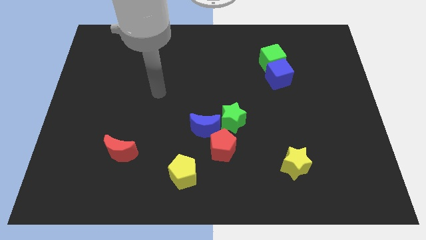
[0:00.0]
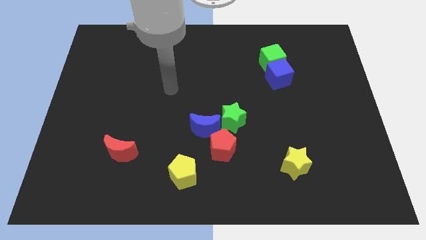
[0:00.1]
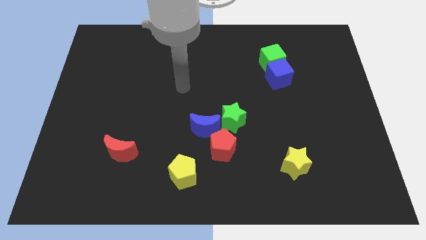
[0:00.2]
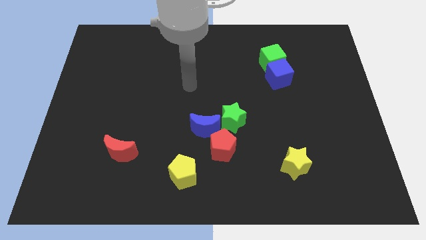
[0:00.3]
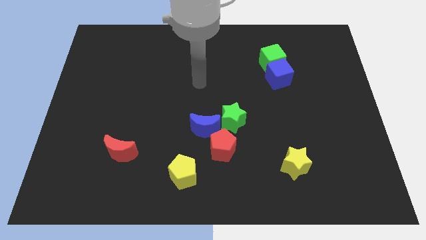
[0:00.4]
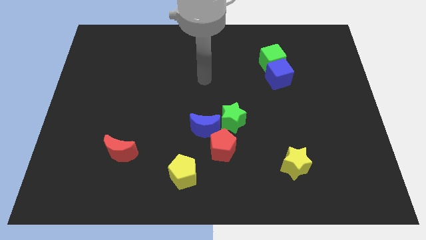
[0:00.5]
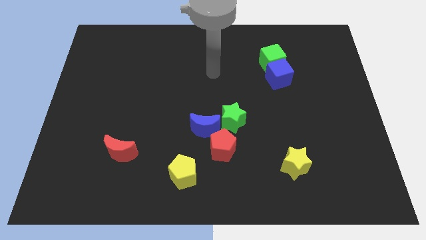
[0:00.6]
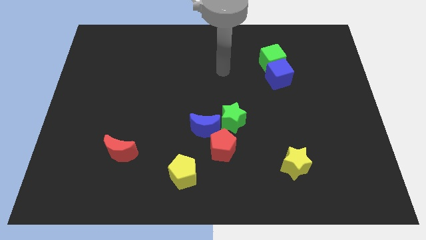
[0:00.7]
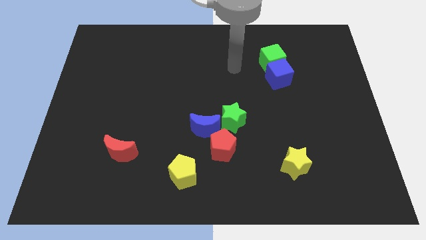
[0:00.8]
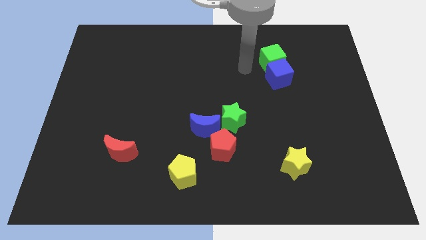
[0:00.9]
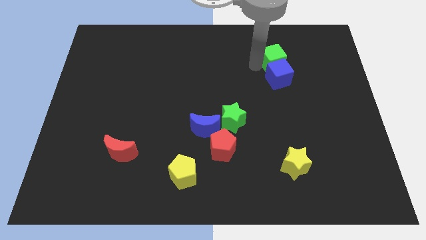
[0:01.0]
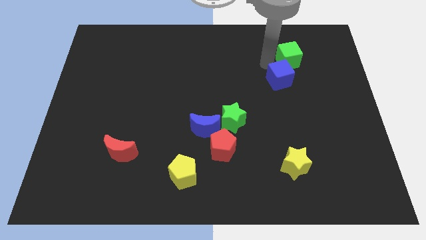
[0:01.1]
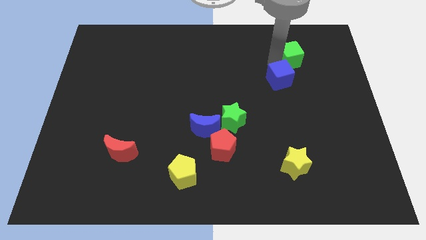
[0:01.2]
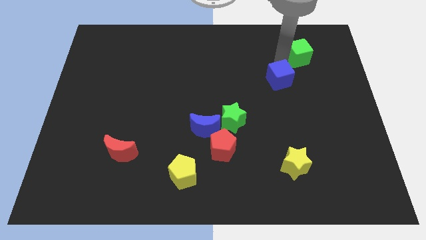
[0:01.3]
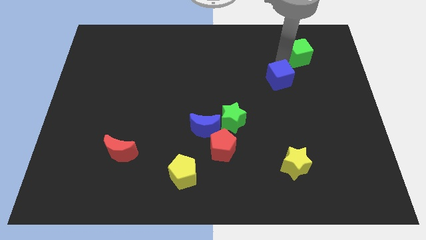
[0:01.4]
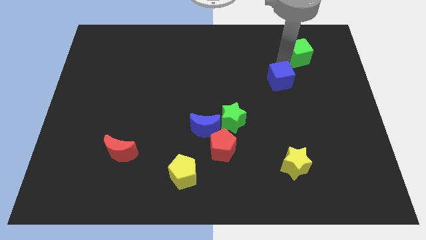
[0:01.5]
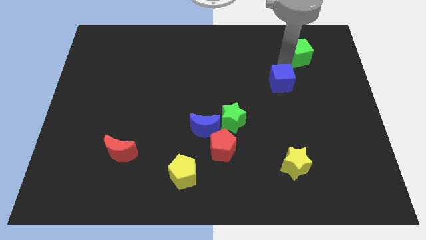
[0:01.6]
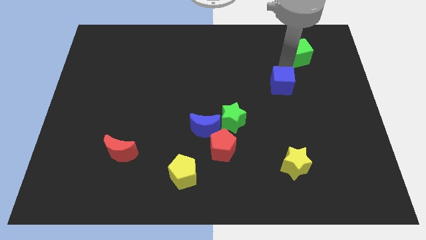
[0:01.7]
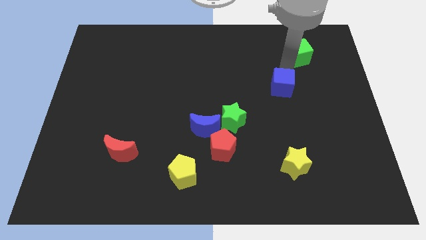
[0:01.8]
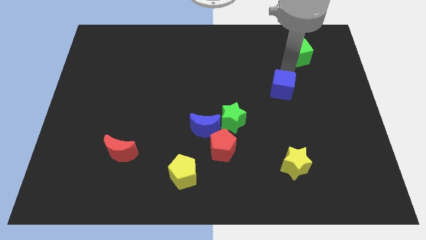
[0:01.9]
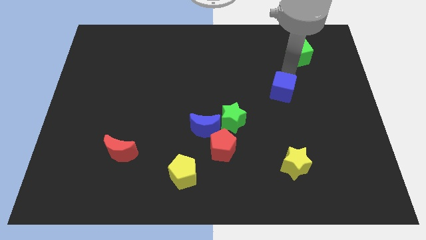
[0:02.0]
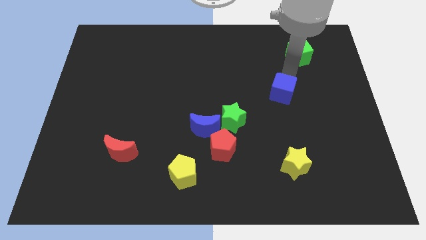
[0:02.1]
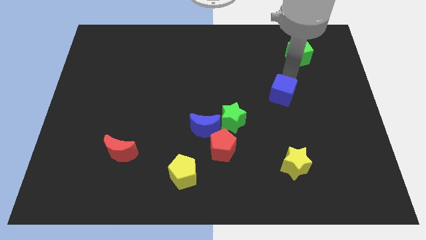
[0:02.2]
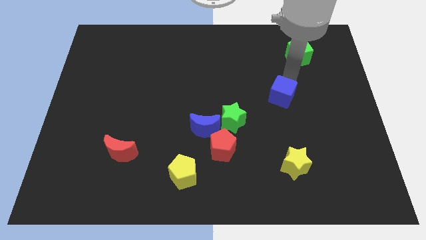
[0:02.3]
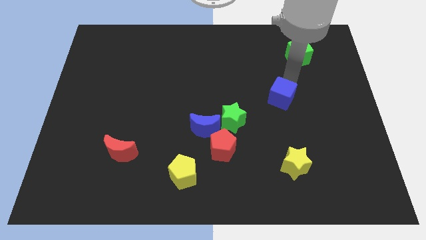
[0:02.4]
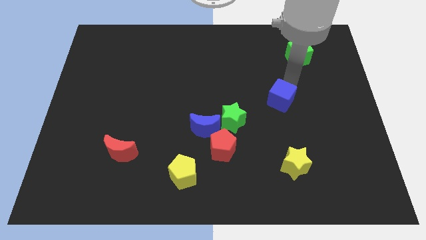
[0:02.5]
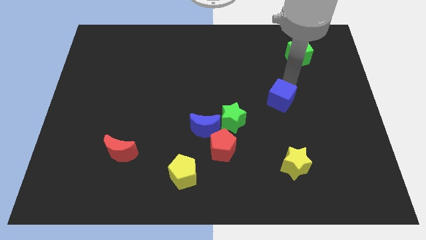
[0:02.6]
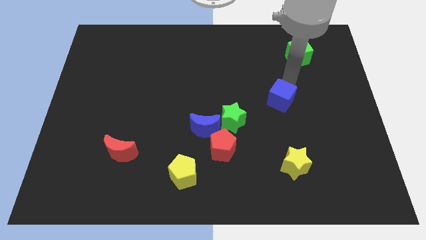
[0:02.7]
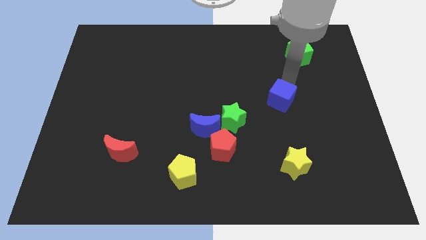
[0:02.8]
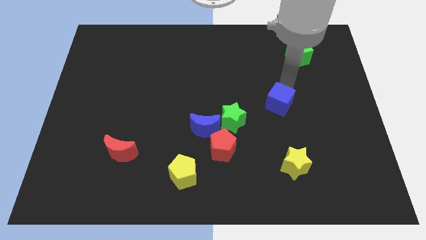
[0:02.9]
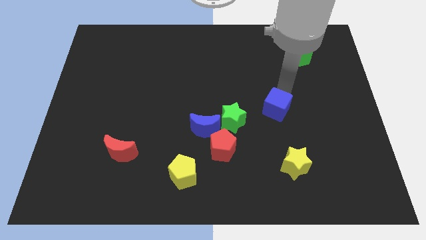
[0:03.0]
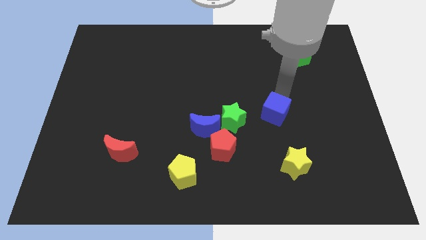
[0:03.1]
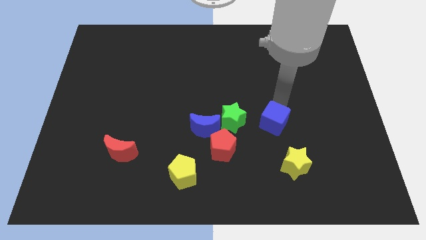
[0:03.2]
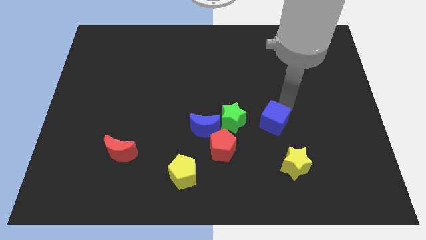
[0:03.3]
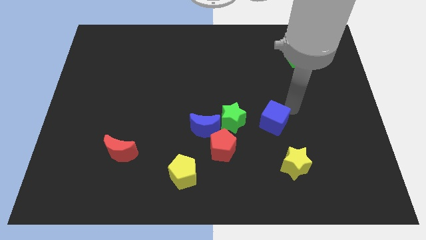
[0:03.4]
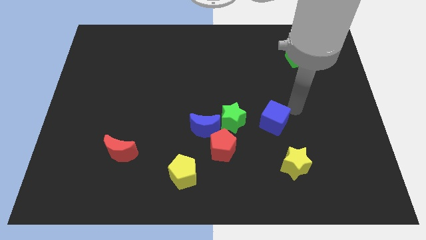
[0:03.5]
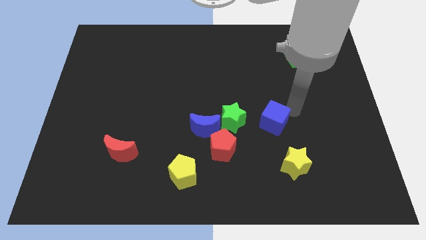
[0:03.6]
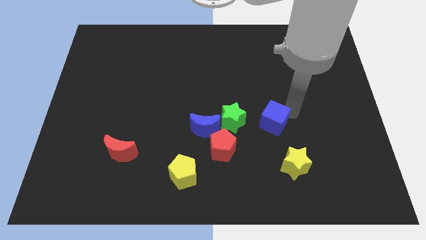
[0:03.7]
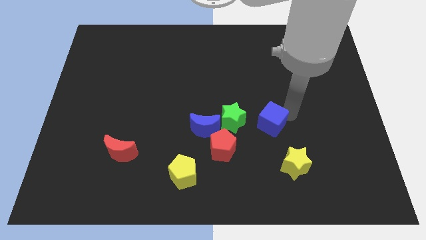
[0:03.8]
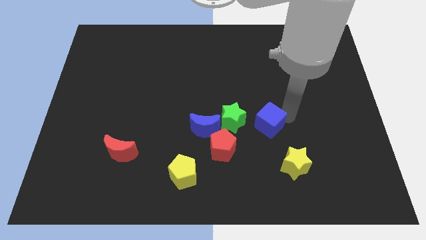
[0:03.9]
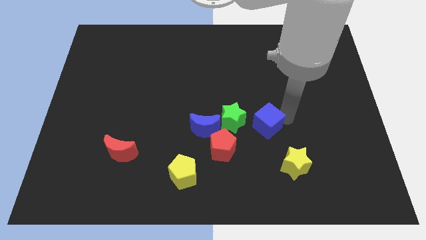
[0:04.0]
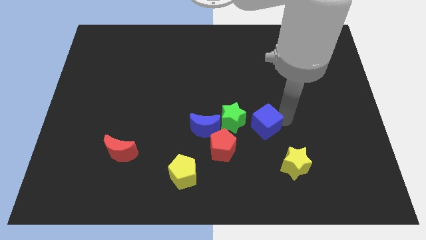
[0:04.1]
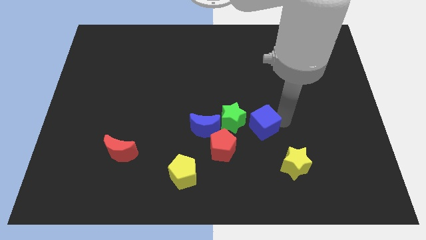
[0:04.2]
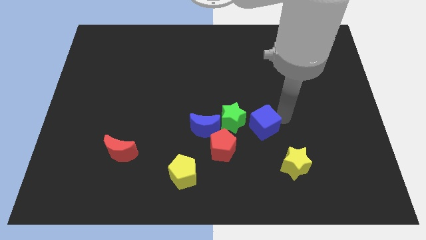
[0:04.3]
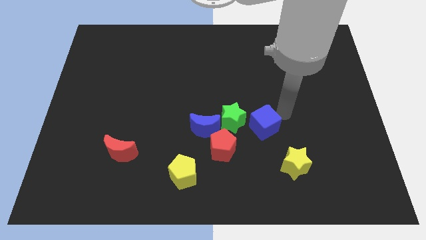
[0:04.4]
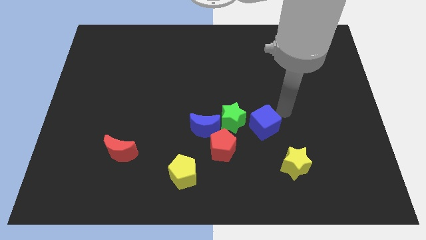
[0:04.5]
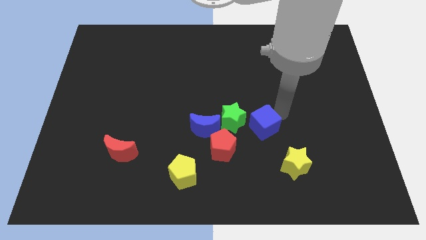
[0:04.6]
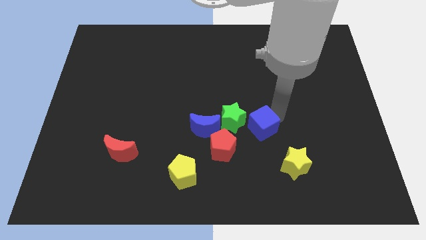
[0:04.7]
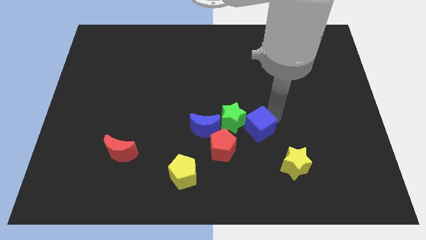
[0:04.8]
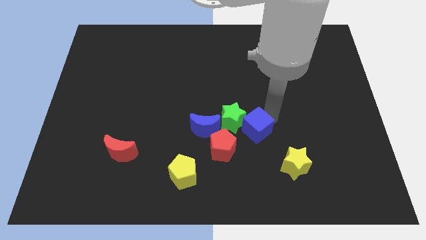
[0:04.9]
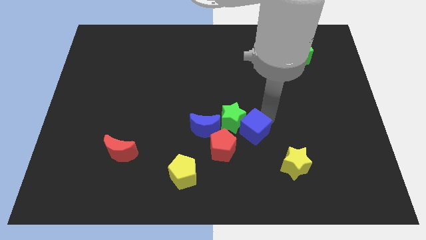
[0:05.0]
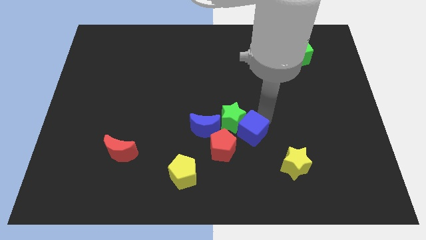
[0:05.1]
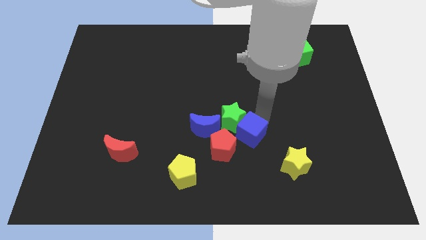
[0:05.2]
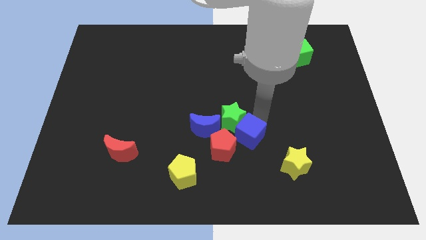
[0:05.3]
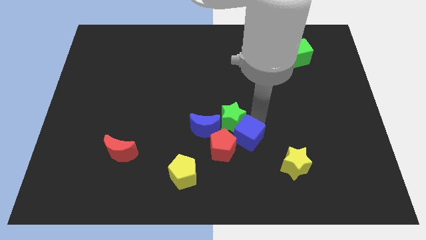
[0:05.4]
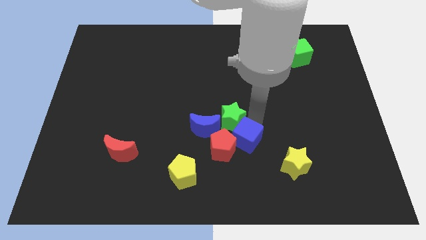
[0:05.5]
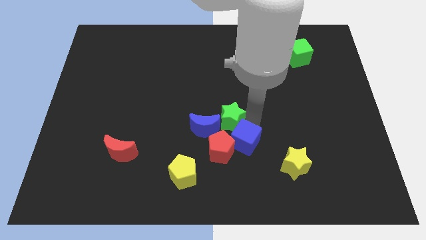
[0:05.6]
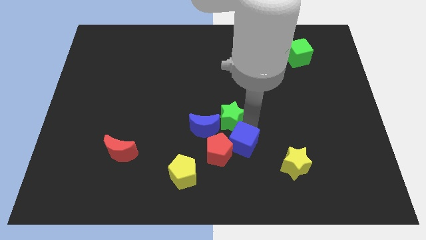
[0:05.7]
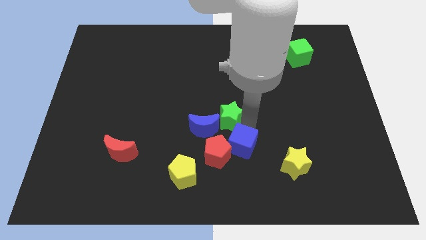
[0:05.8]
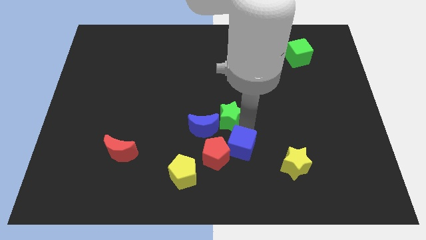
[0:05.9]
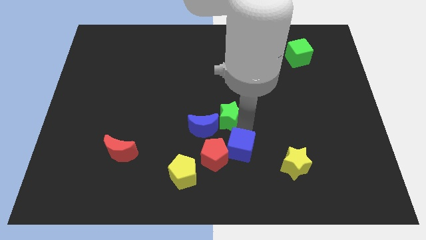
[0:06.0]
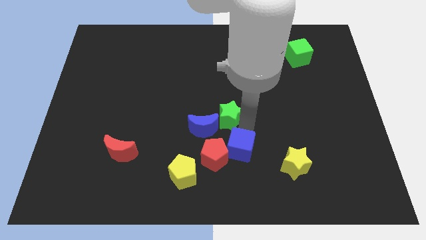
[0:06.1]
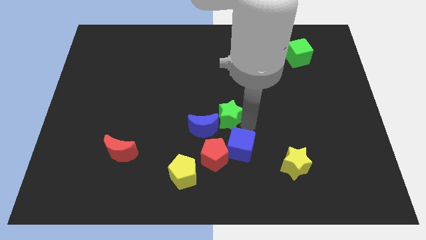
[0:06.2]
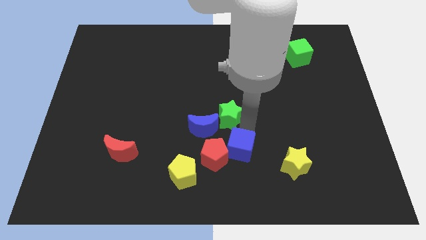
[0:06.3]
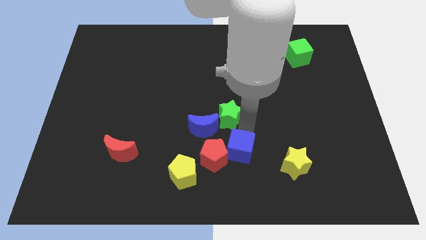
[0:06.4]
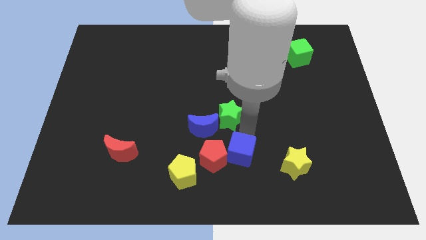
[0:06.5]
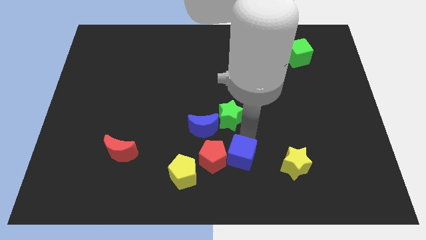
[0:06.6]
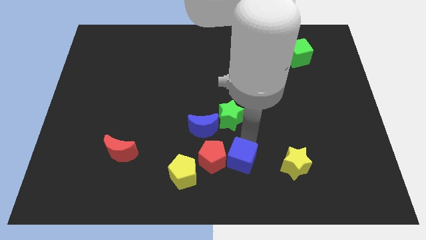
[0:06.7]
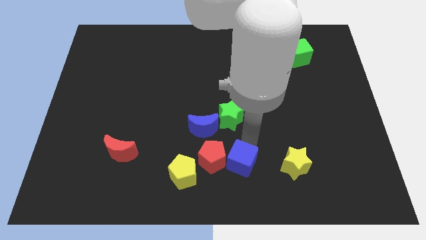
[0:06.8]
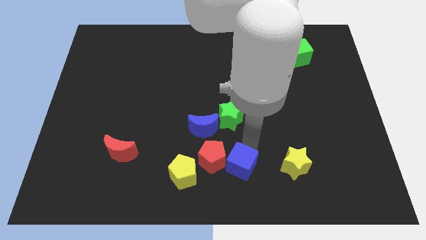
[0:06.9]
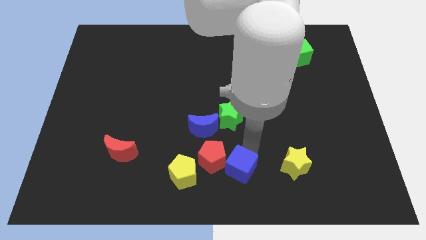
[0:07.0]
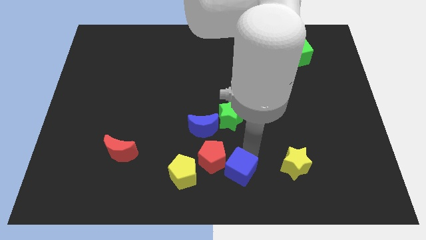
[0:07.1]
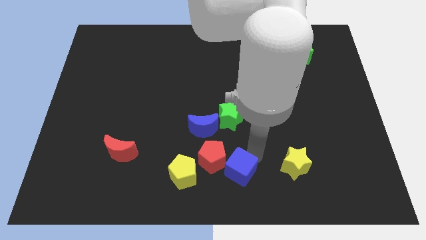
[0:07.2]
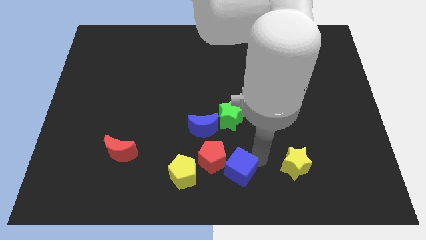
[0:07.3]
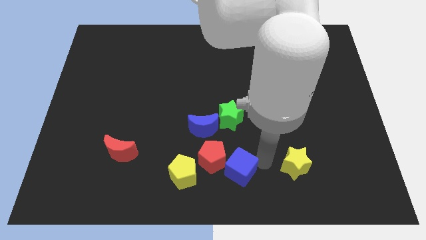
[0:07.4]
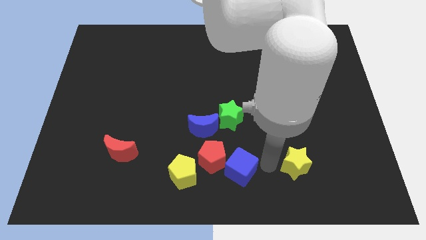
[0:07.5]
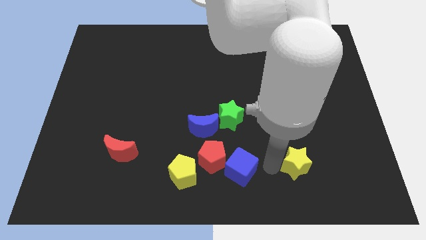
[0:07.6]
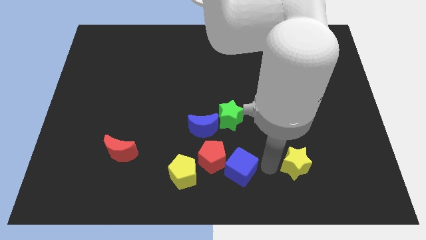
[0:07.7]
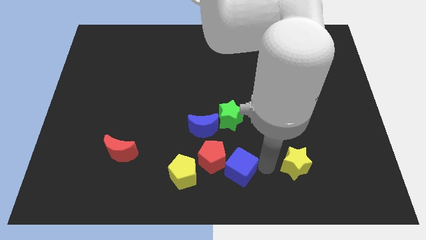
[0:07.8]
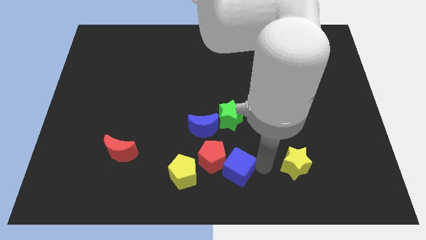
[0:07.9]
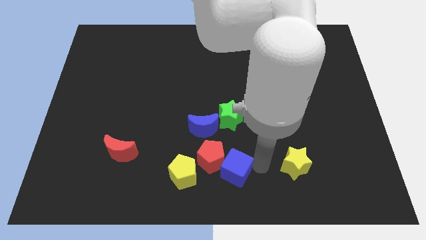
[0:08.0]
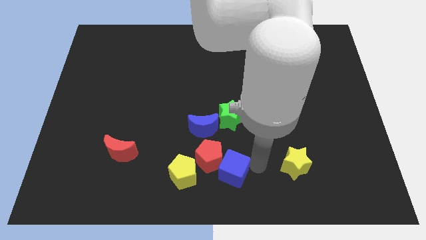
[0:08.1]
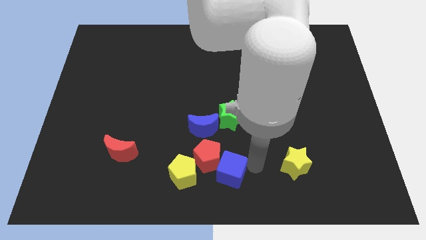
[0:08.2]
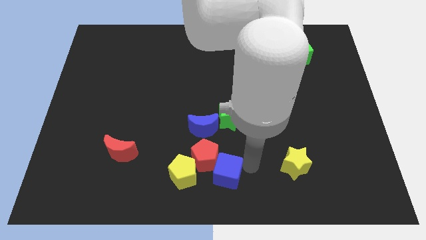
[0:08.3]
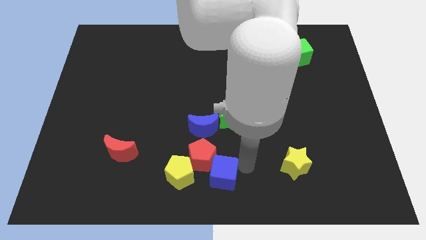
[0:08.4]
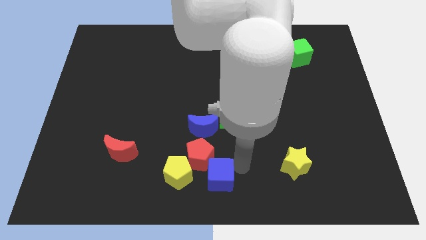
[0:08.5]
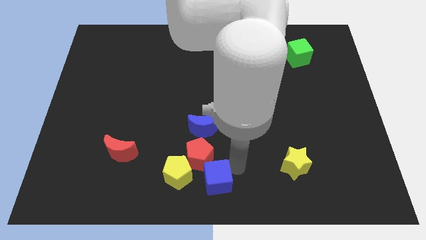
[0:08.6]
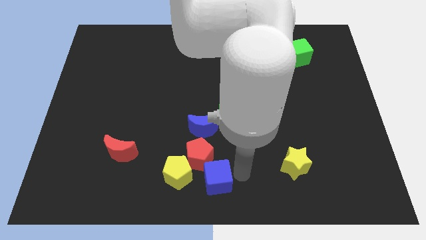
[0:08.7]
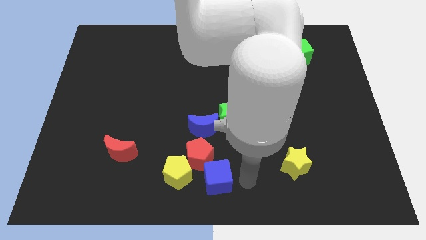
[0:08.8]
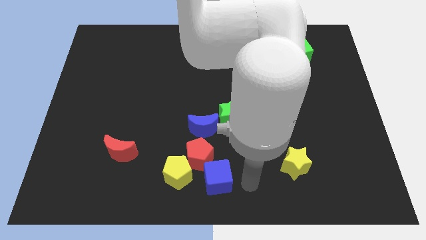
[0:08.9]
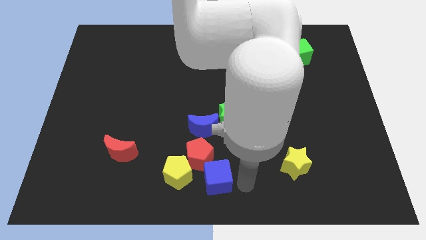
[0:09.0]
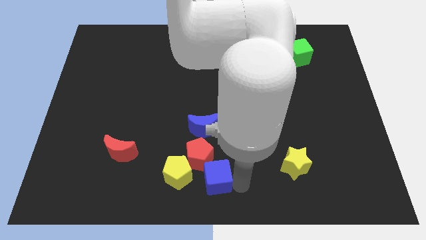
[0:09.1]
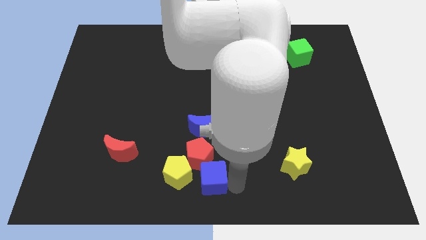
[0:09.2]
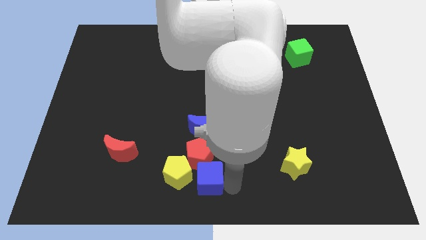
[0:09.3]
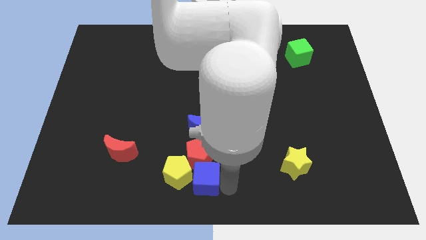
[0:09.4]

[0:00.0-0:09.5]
push the blue cube towards the yellow pentagon
